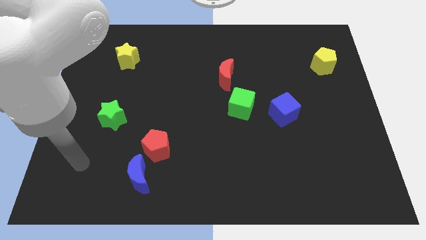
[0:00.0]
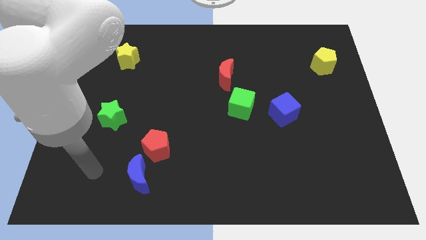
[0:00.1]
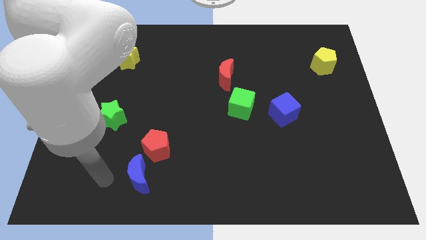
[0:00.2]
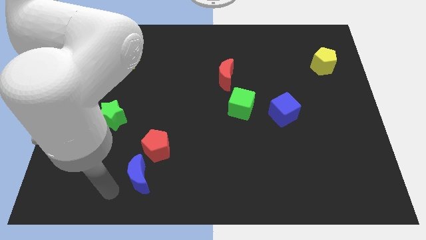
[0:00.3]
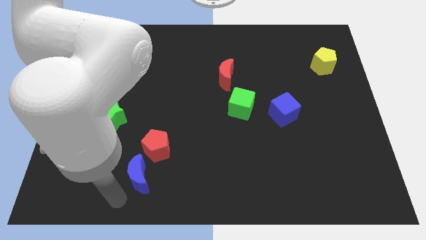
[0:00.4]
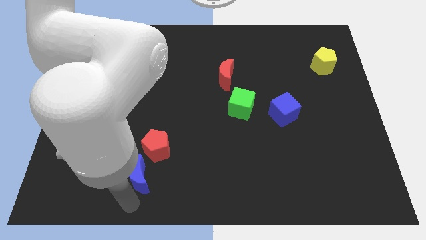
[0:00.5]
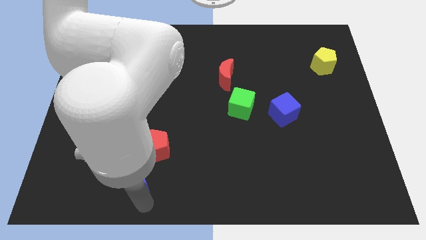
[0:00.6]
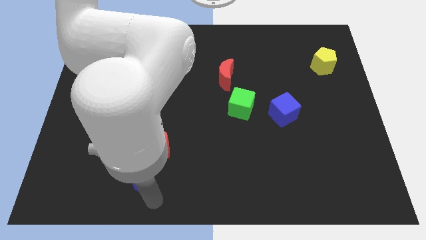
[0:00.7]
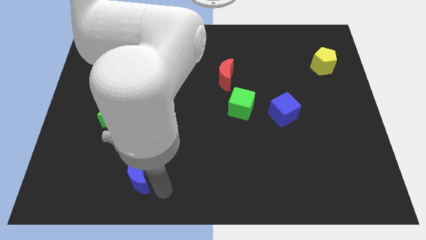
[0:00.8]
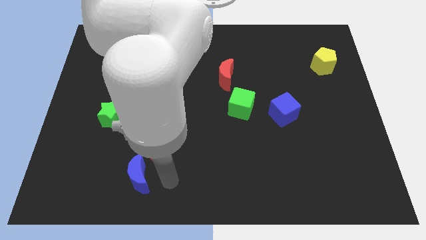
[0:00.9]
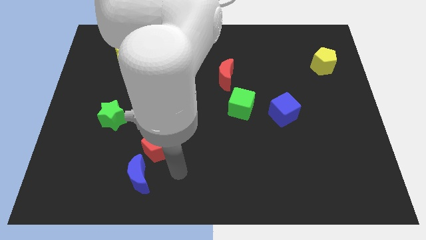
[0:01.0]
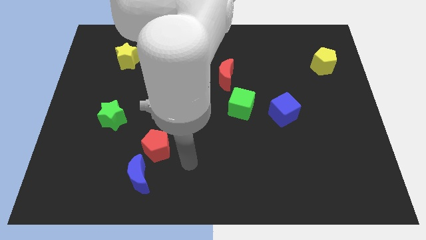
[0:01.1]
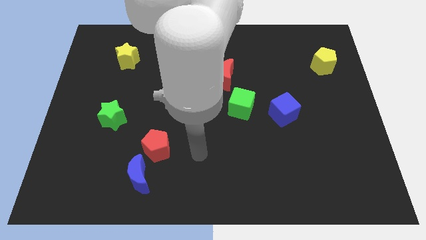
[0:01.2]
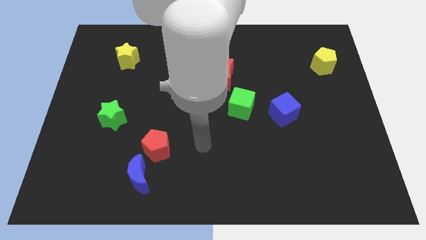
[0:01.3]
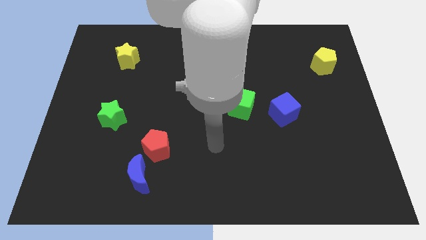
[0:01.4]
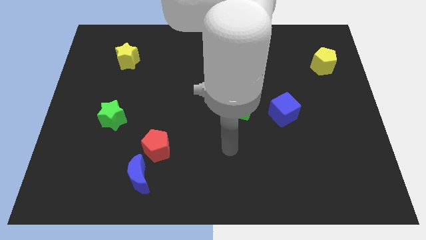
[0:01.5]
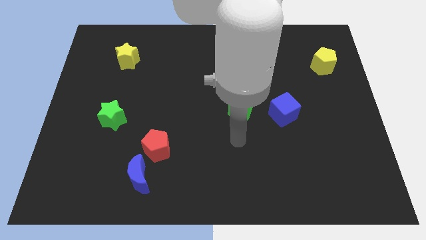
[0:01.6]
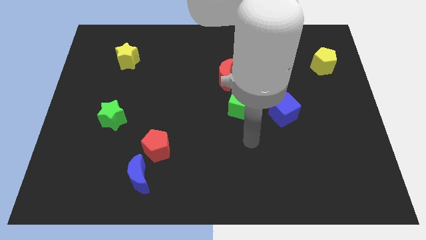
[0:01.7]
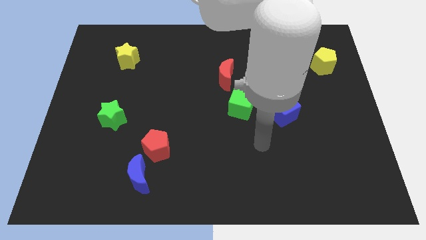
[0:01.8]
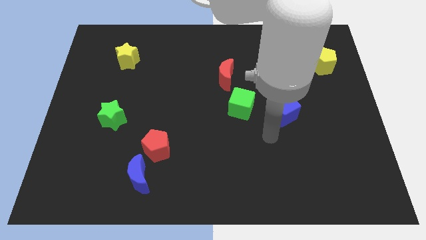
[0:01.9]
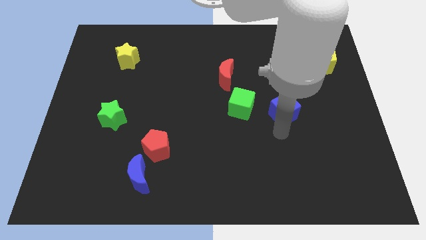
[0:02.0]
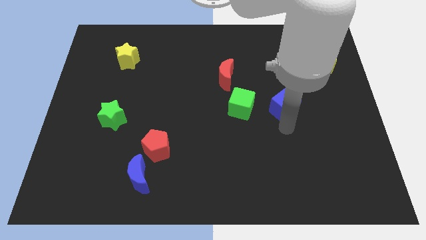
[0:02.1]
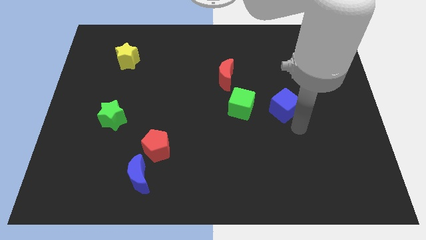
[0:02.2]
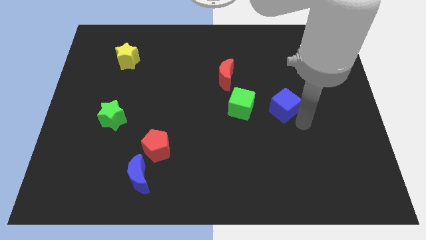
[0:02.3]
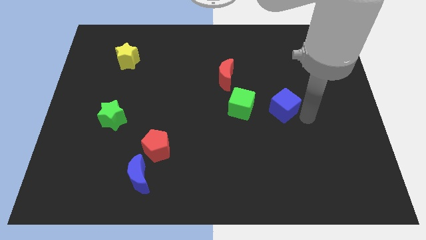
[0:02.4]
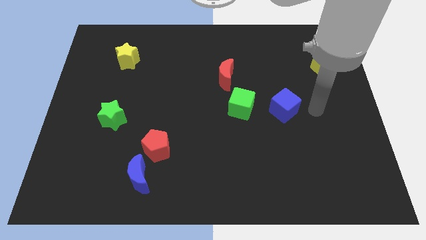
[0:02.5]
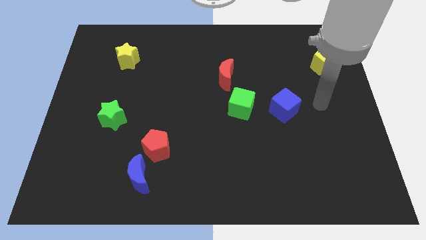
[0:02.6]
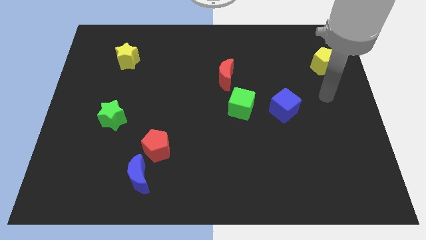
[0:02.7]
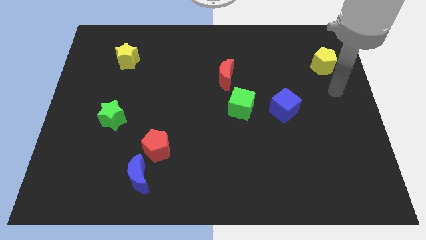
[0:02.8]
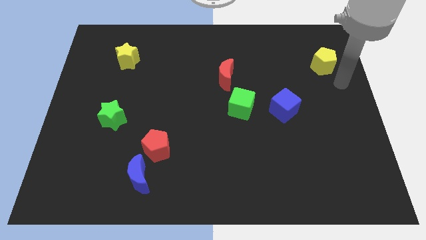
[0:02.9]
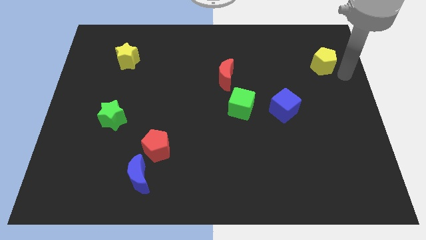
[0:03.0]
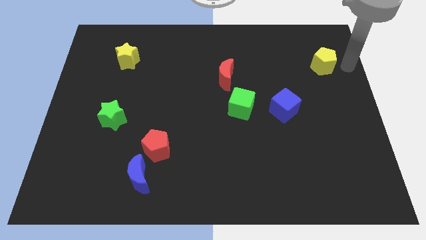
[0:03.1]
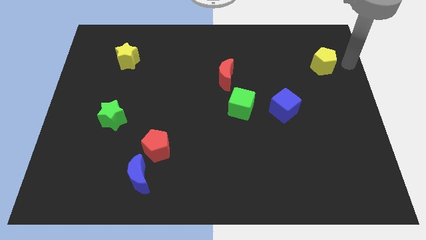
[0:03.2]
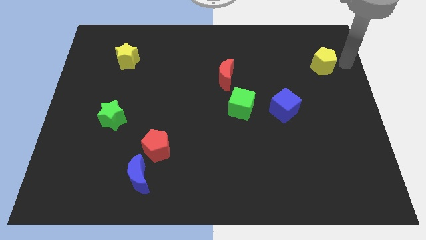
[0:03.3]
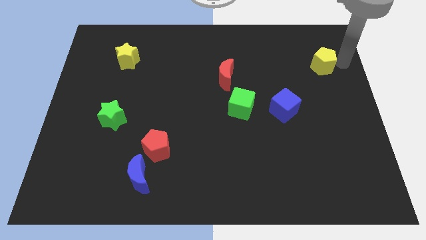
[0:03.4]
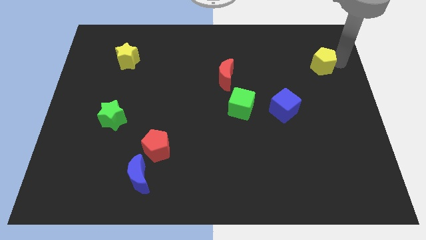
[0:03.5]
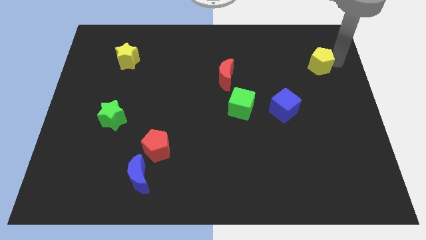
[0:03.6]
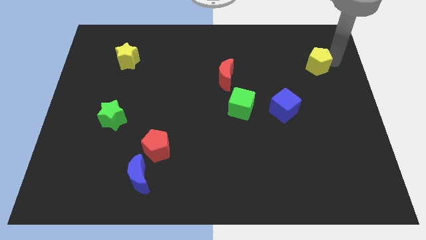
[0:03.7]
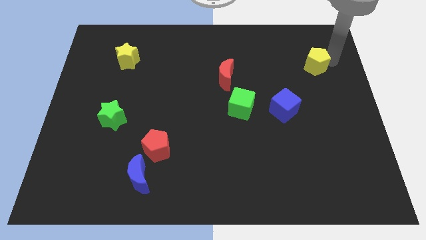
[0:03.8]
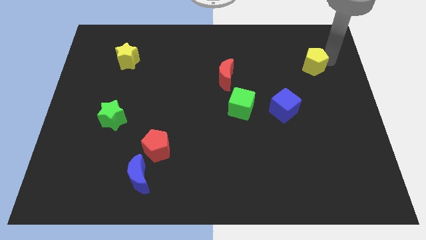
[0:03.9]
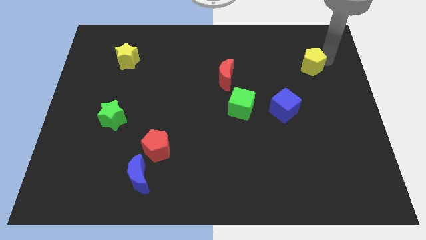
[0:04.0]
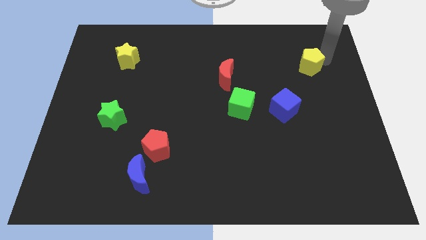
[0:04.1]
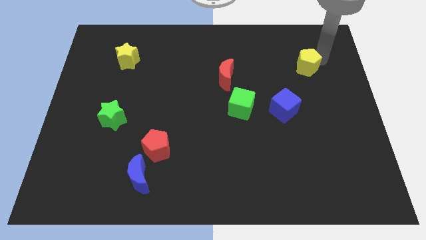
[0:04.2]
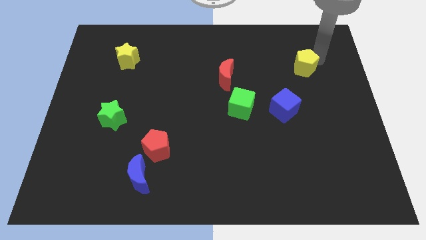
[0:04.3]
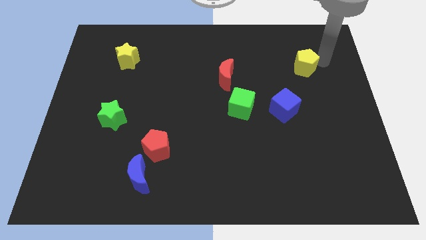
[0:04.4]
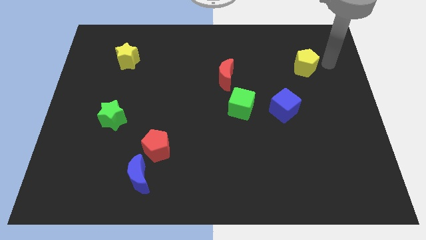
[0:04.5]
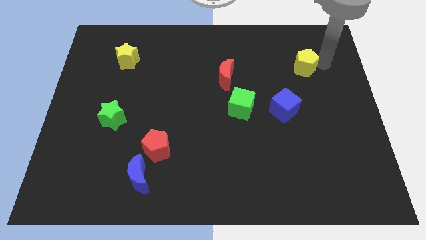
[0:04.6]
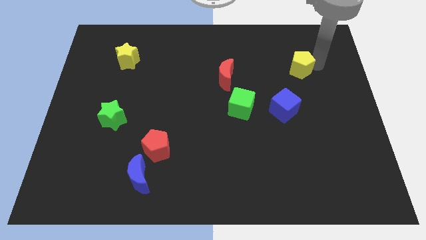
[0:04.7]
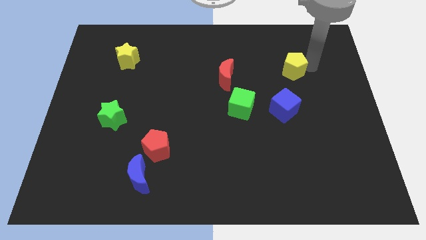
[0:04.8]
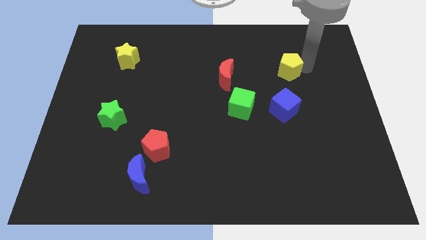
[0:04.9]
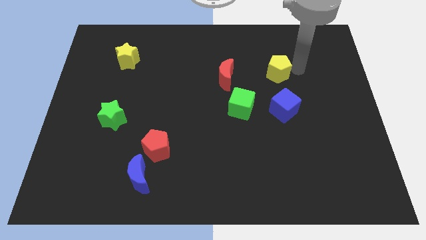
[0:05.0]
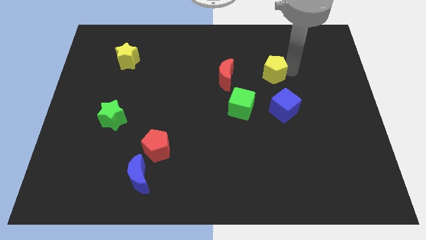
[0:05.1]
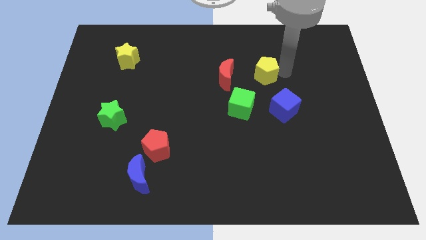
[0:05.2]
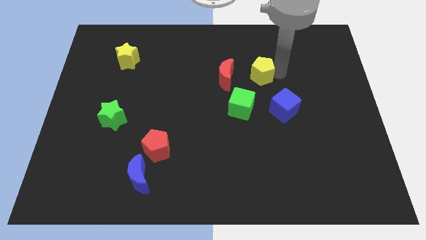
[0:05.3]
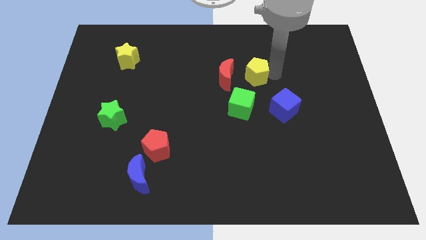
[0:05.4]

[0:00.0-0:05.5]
slide the yellow pentagon to the top of the green cube
